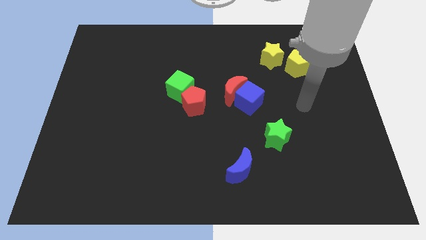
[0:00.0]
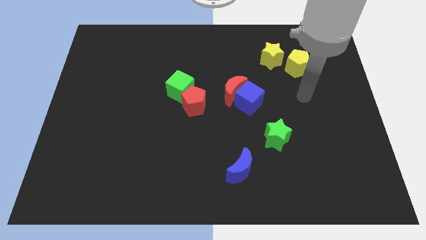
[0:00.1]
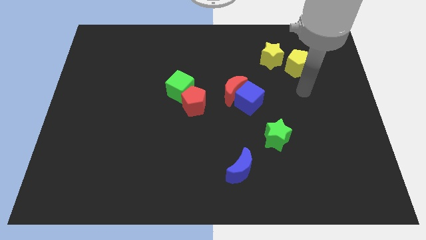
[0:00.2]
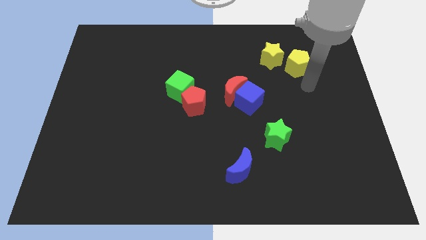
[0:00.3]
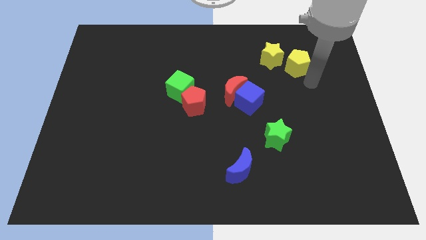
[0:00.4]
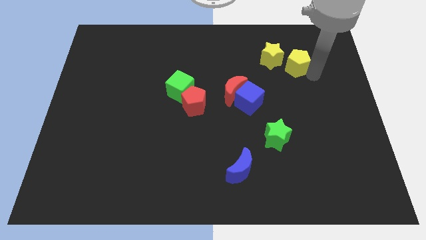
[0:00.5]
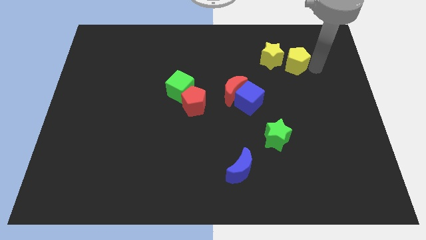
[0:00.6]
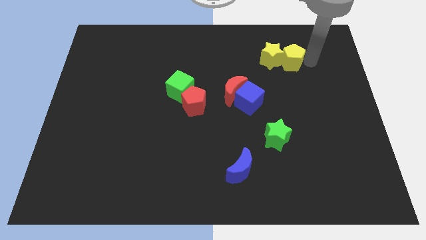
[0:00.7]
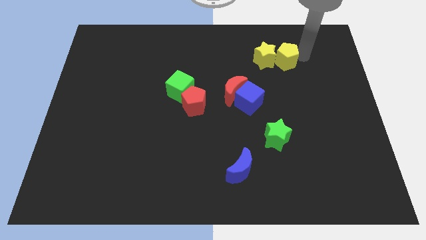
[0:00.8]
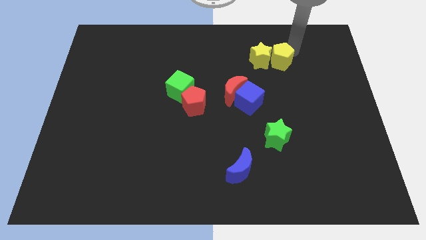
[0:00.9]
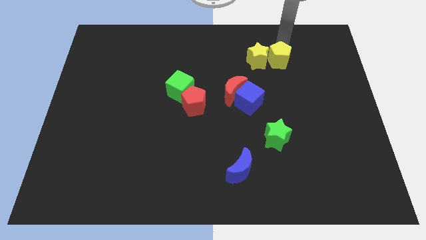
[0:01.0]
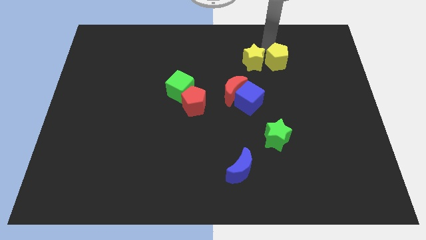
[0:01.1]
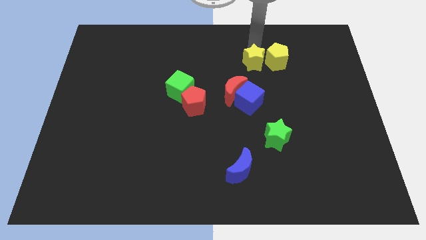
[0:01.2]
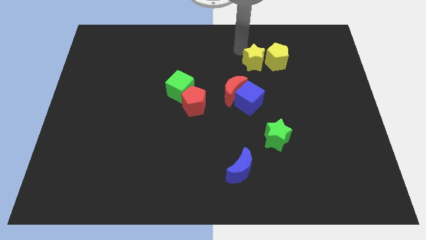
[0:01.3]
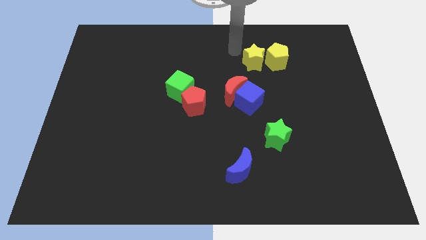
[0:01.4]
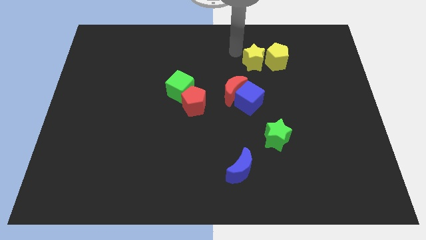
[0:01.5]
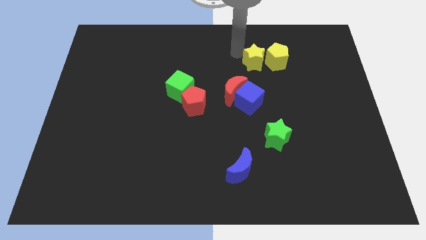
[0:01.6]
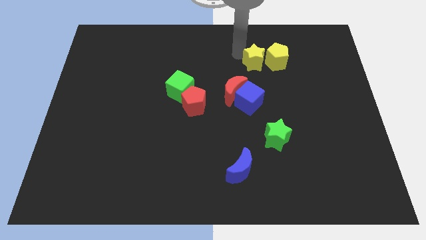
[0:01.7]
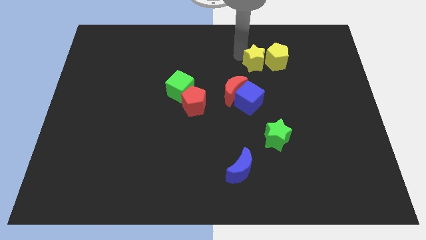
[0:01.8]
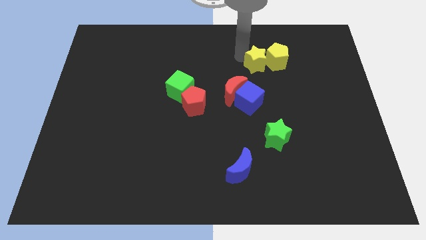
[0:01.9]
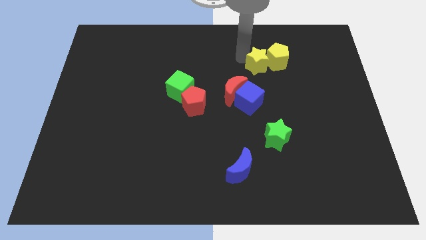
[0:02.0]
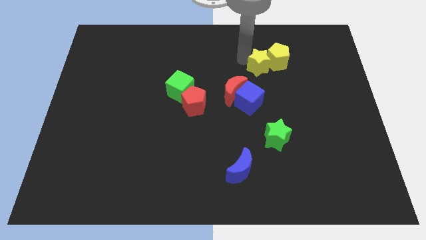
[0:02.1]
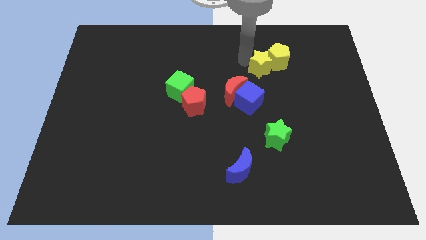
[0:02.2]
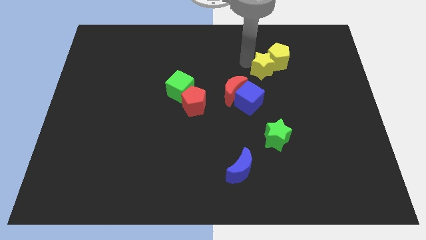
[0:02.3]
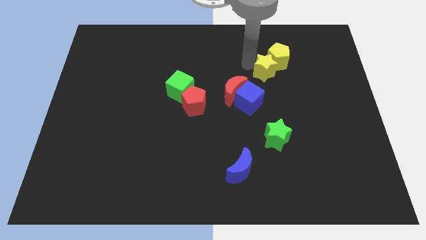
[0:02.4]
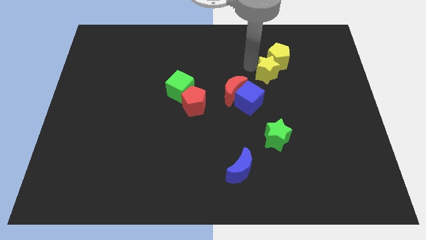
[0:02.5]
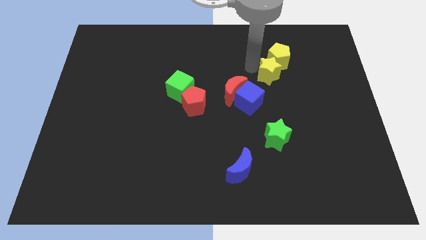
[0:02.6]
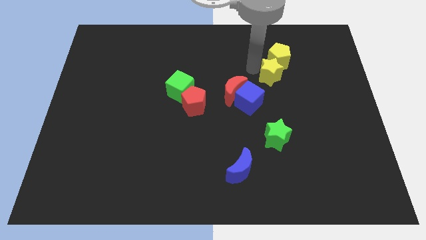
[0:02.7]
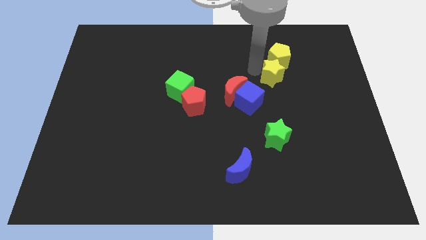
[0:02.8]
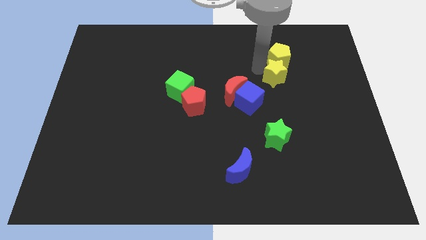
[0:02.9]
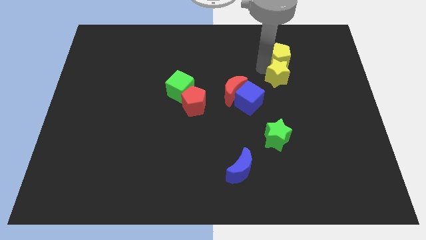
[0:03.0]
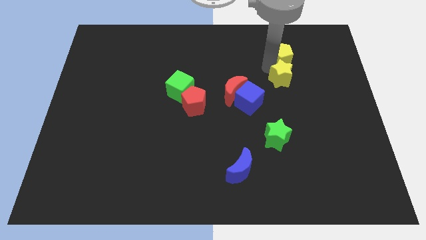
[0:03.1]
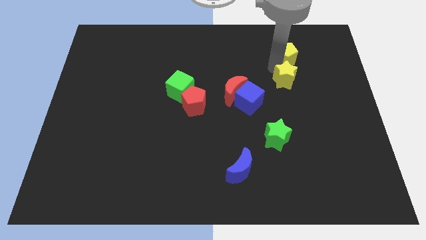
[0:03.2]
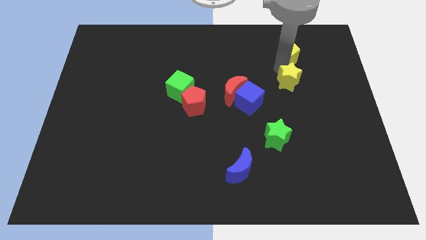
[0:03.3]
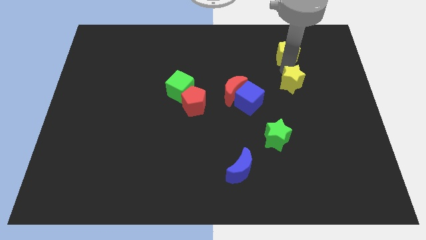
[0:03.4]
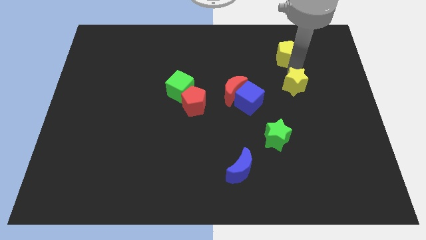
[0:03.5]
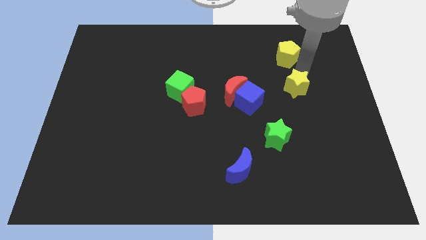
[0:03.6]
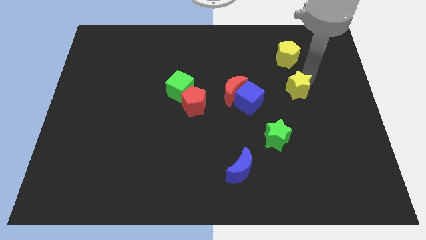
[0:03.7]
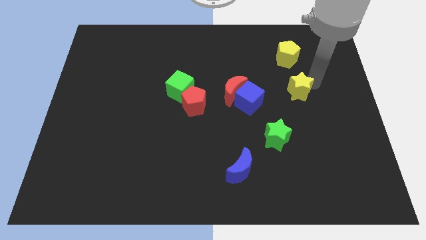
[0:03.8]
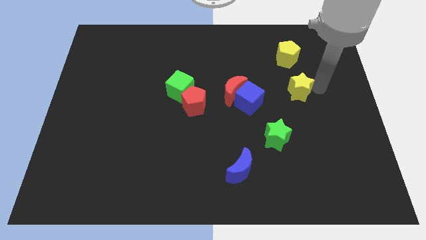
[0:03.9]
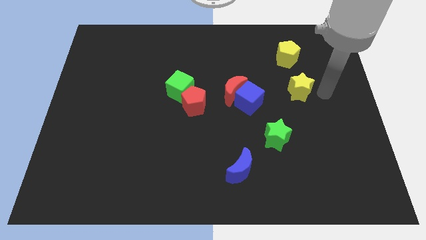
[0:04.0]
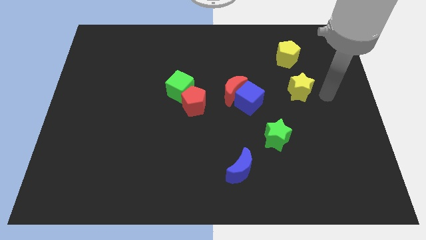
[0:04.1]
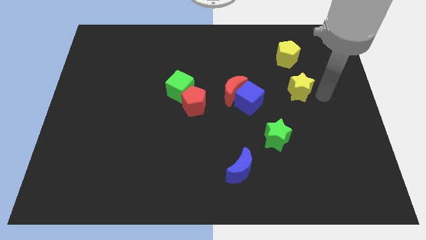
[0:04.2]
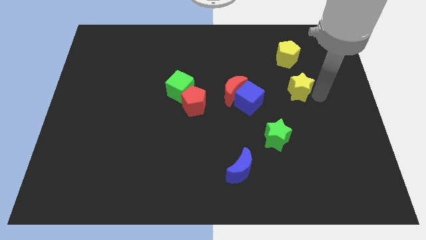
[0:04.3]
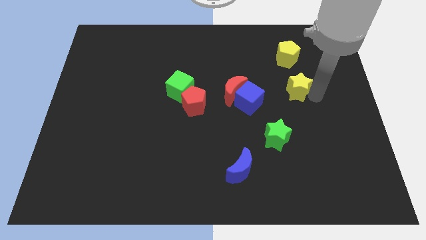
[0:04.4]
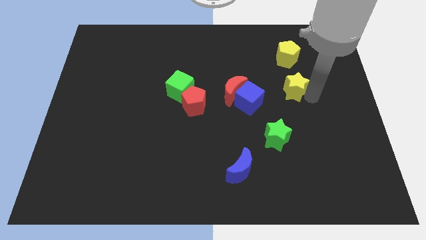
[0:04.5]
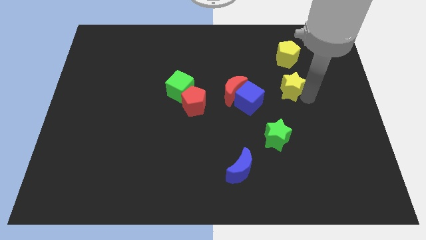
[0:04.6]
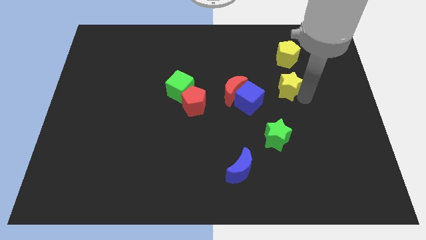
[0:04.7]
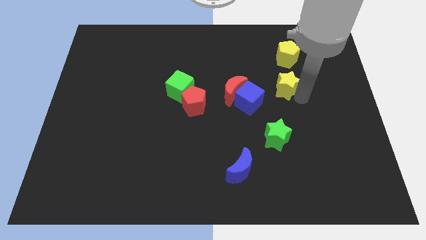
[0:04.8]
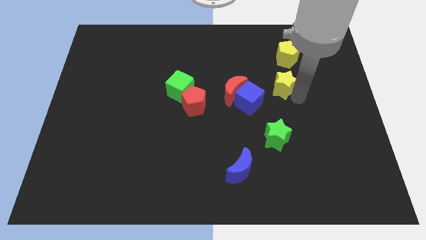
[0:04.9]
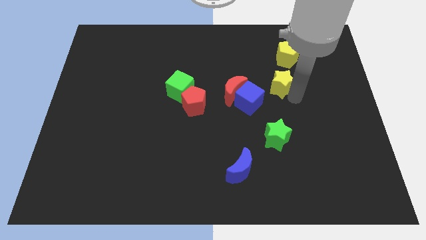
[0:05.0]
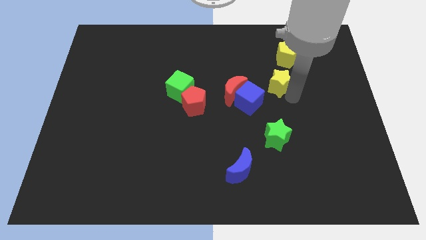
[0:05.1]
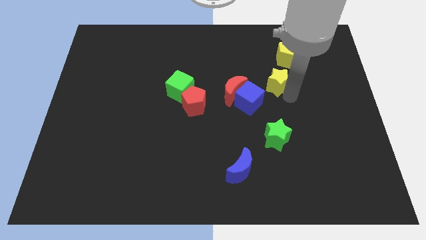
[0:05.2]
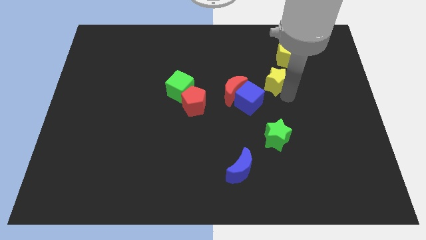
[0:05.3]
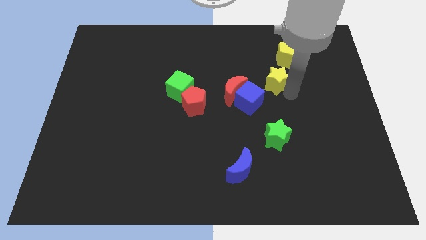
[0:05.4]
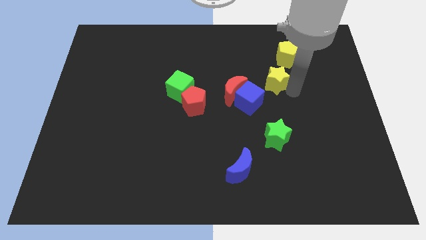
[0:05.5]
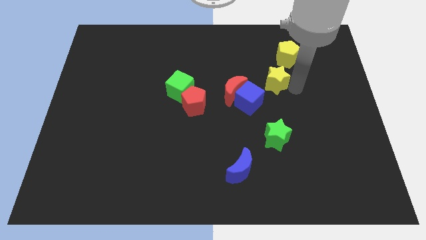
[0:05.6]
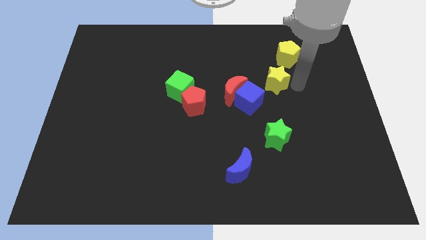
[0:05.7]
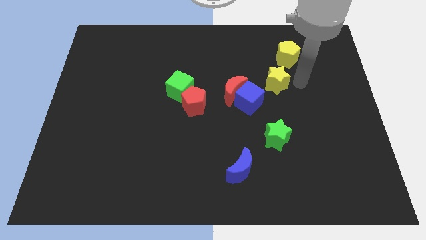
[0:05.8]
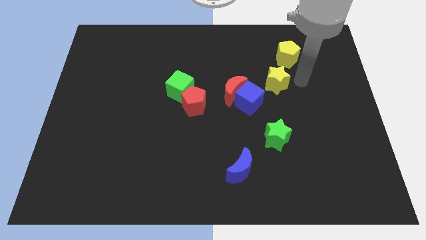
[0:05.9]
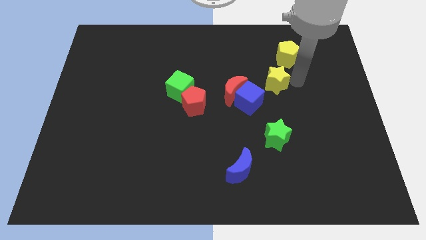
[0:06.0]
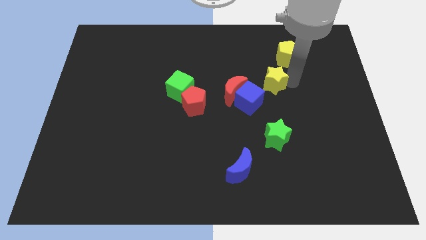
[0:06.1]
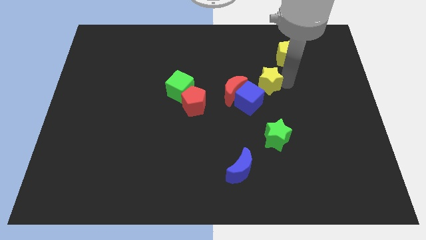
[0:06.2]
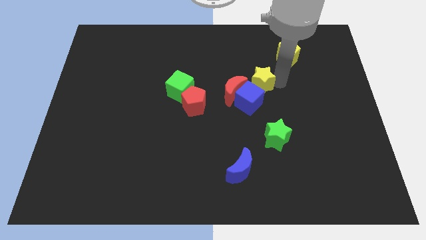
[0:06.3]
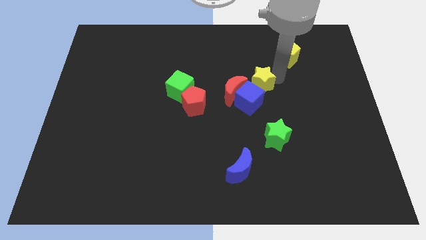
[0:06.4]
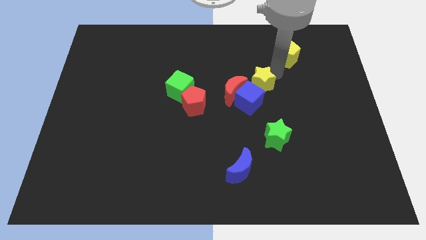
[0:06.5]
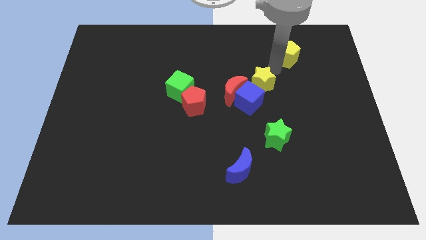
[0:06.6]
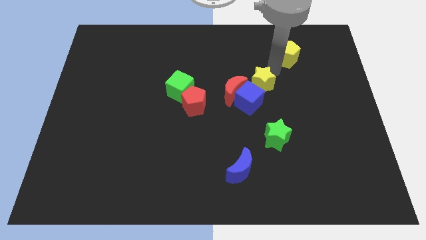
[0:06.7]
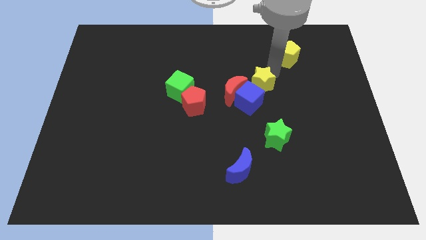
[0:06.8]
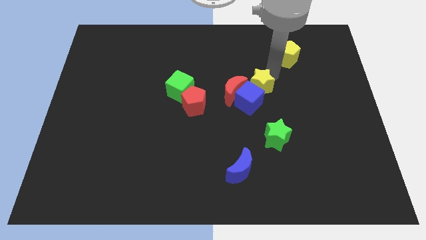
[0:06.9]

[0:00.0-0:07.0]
push the yellow star towards the blue cube

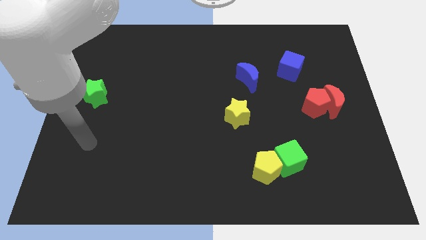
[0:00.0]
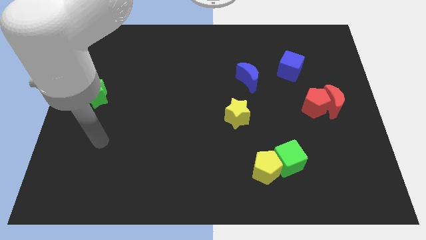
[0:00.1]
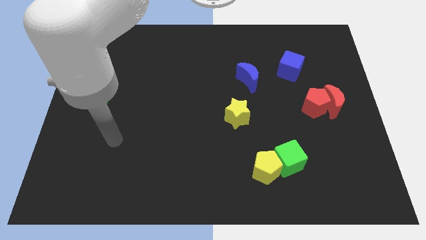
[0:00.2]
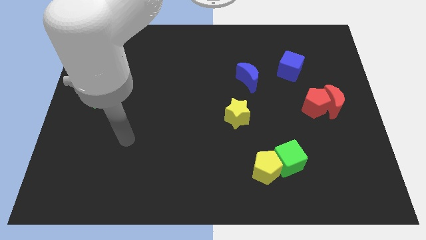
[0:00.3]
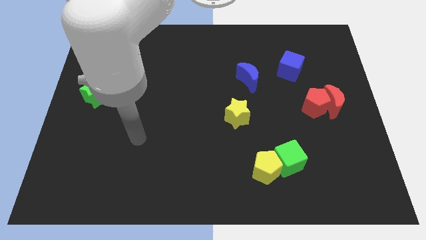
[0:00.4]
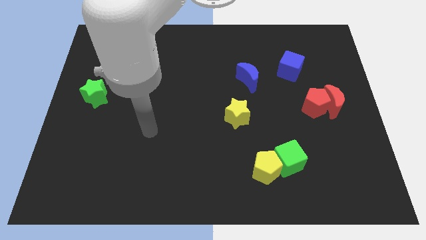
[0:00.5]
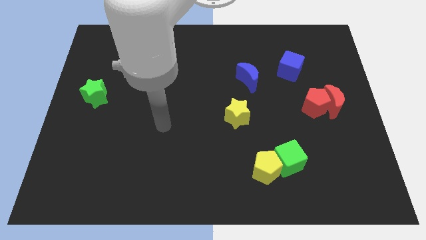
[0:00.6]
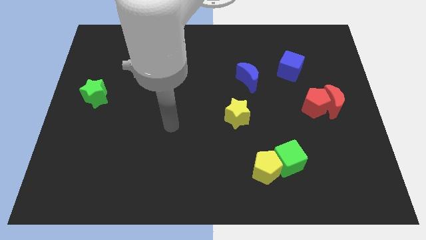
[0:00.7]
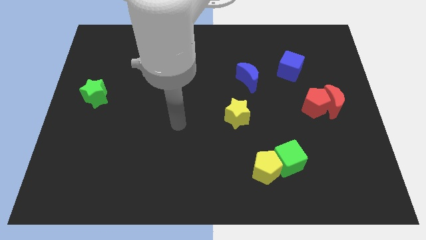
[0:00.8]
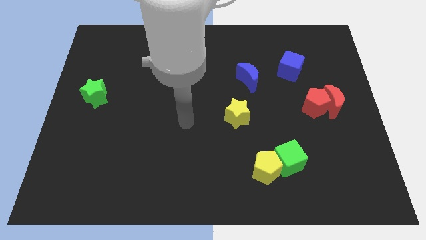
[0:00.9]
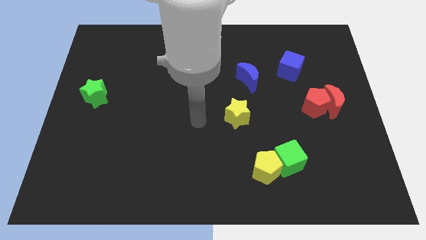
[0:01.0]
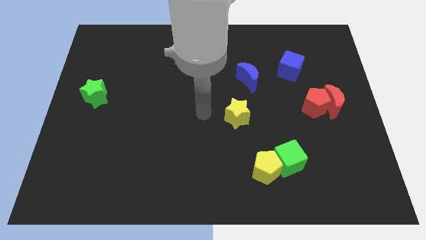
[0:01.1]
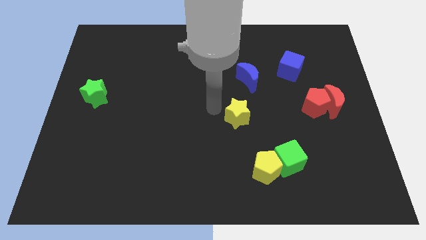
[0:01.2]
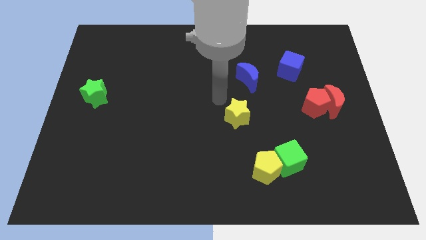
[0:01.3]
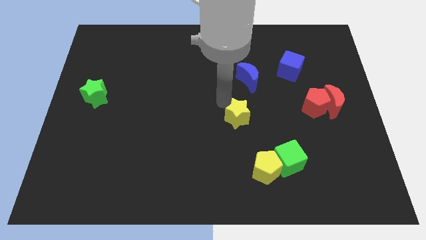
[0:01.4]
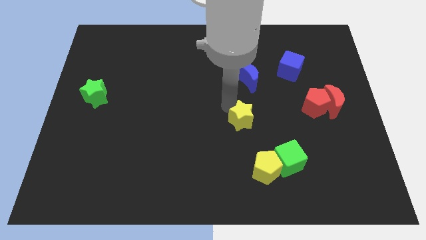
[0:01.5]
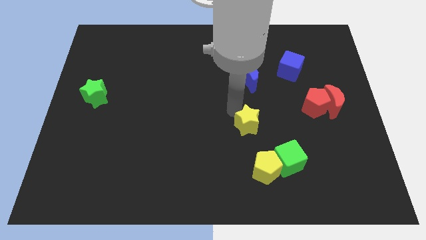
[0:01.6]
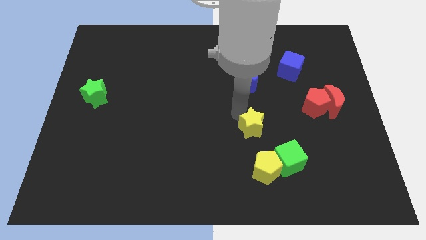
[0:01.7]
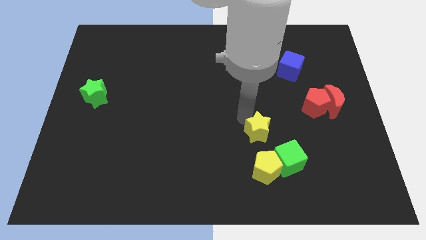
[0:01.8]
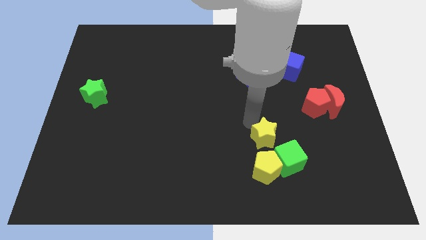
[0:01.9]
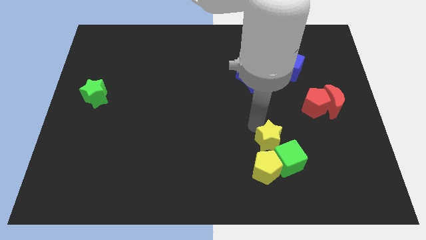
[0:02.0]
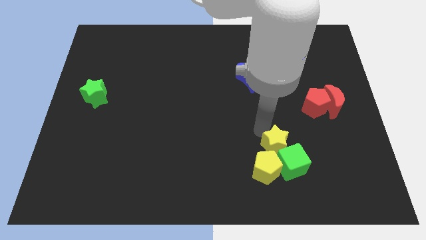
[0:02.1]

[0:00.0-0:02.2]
put the yellow star next to the green cube
